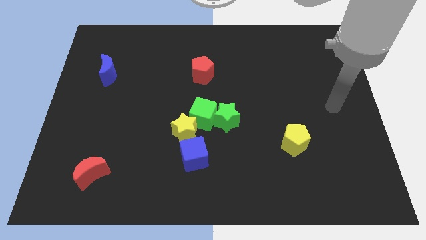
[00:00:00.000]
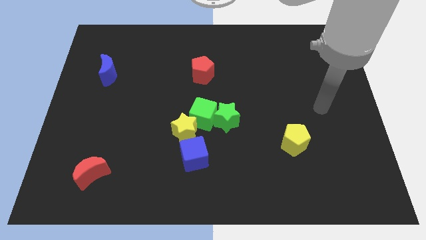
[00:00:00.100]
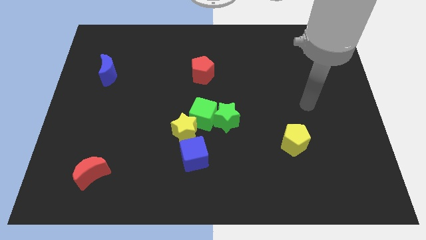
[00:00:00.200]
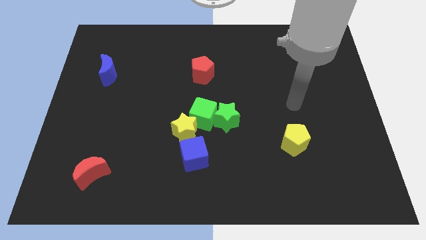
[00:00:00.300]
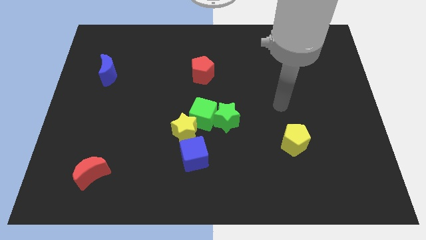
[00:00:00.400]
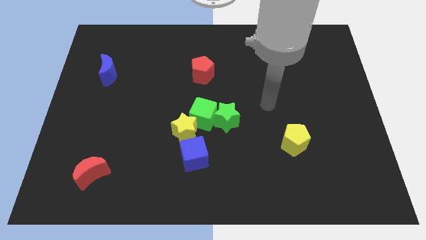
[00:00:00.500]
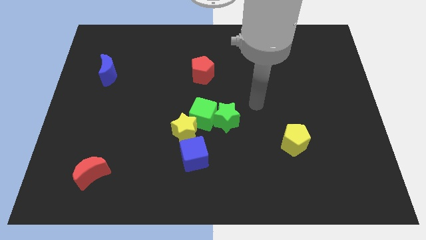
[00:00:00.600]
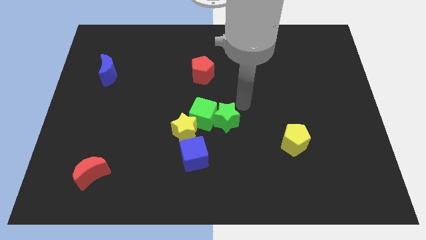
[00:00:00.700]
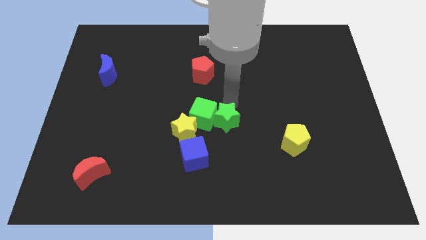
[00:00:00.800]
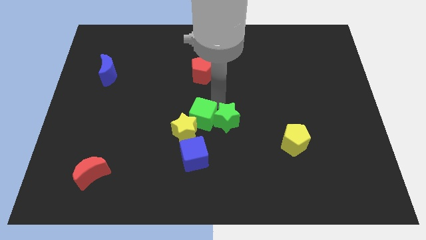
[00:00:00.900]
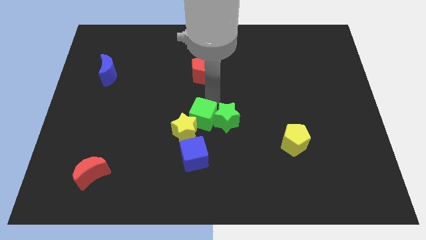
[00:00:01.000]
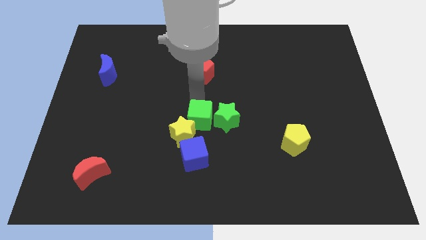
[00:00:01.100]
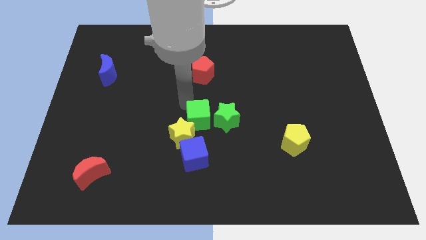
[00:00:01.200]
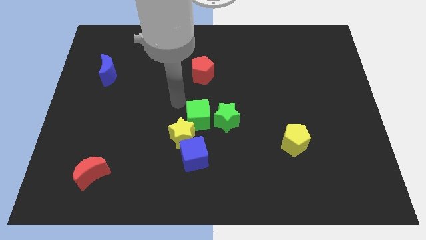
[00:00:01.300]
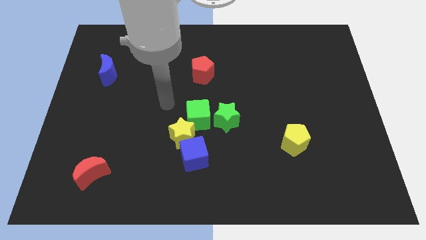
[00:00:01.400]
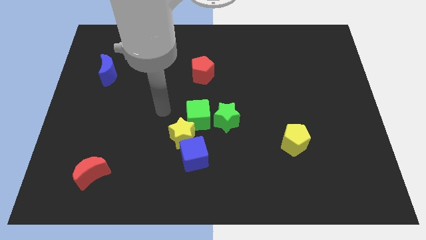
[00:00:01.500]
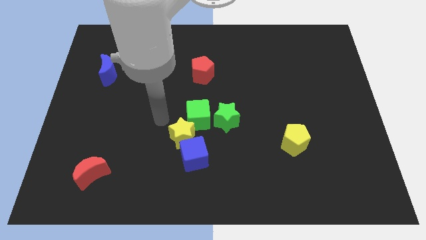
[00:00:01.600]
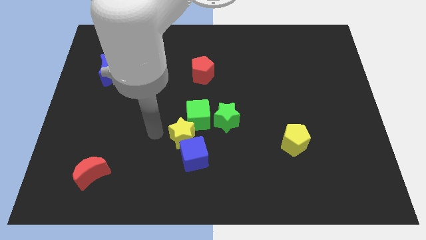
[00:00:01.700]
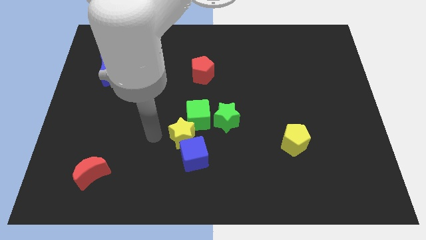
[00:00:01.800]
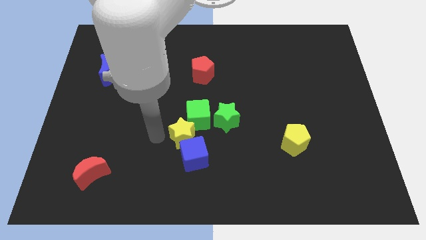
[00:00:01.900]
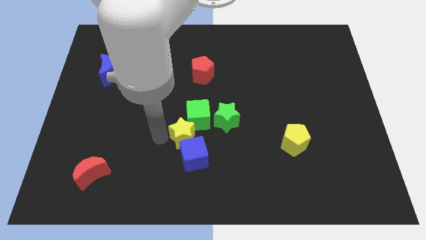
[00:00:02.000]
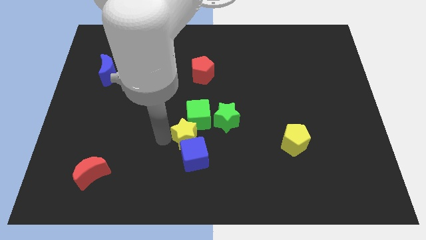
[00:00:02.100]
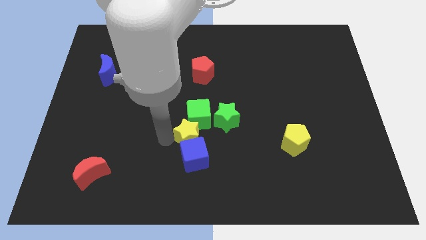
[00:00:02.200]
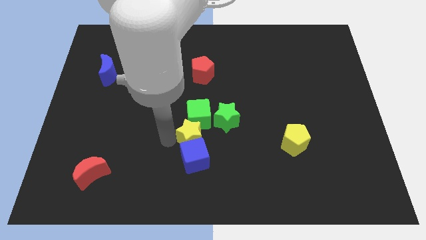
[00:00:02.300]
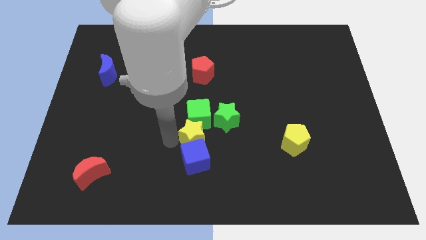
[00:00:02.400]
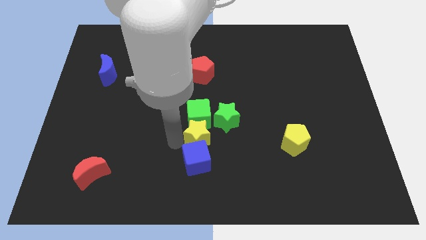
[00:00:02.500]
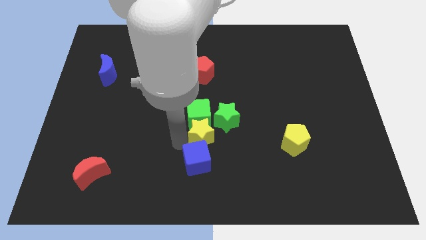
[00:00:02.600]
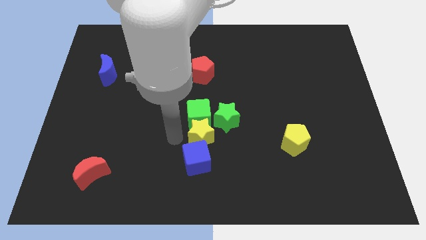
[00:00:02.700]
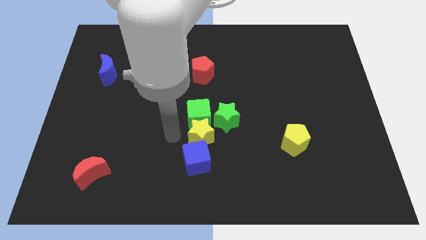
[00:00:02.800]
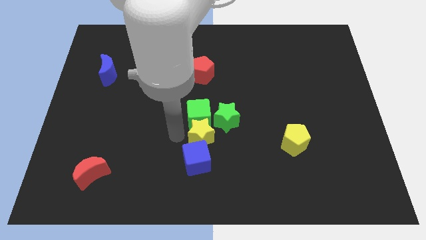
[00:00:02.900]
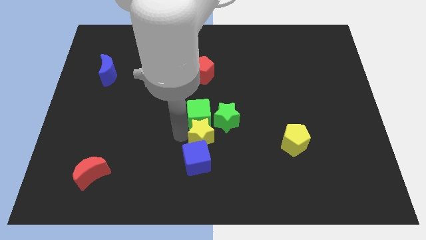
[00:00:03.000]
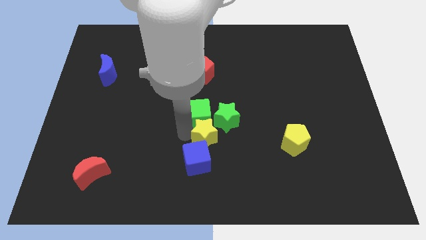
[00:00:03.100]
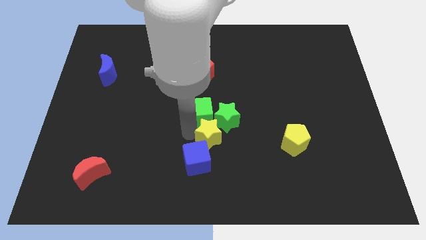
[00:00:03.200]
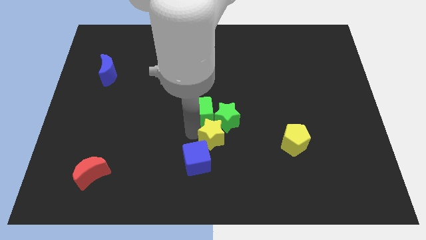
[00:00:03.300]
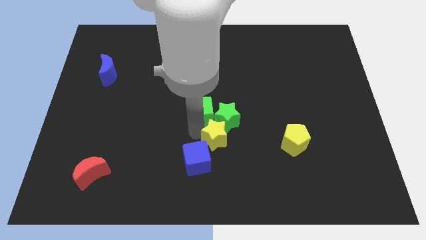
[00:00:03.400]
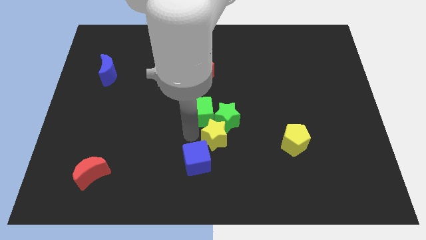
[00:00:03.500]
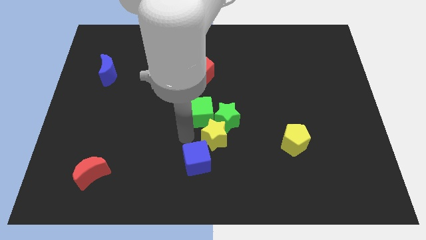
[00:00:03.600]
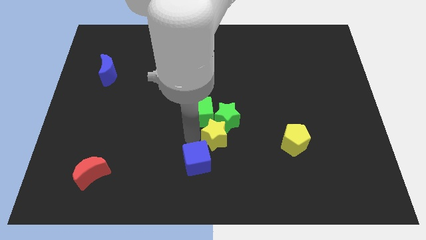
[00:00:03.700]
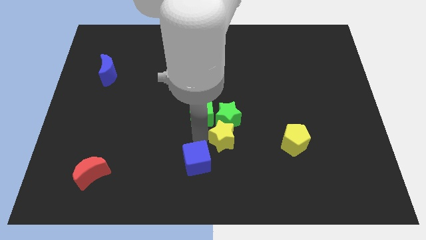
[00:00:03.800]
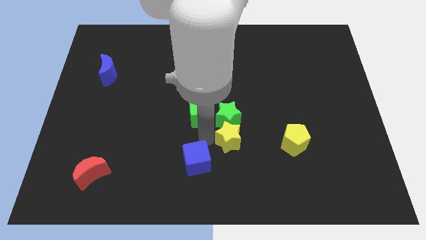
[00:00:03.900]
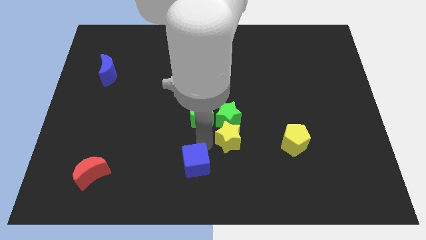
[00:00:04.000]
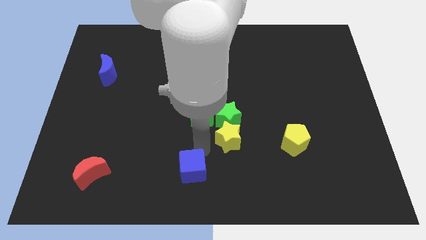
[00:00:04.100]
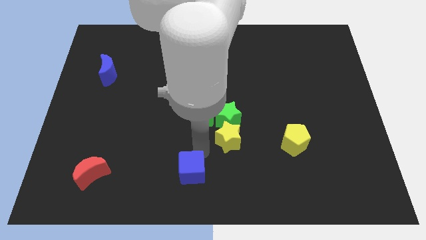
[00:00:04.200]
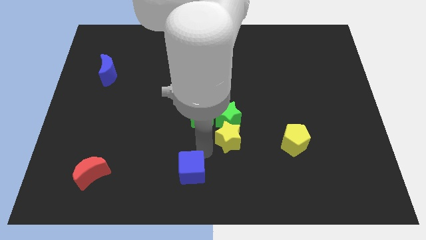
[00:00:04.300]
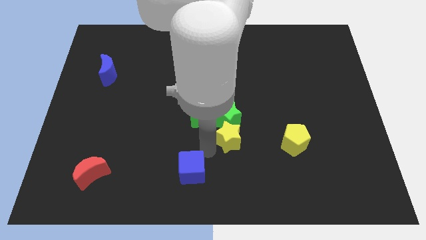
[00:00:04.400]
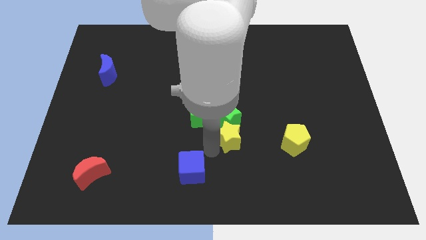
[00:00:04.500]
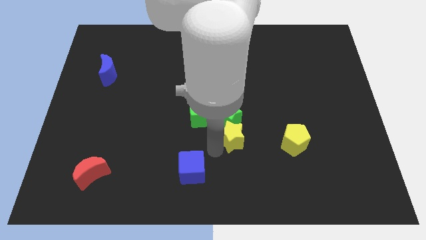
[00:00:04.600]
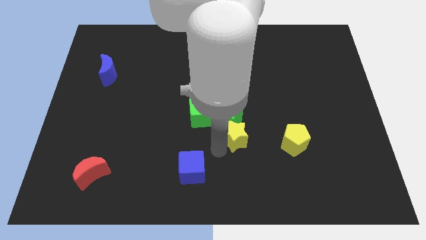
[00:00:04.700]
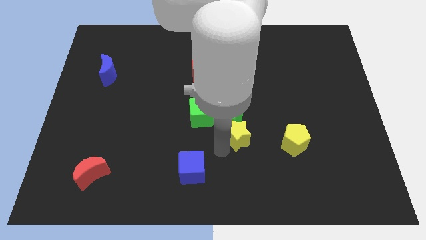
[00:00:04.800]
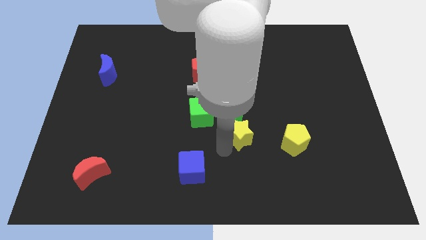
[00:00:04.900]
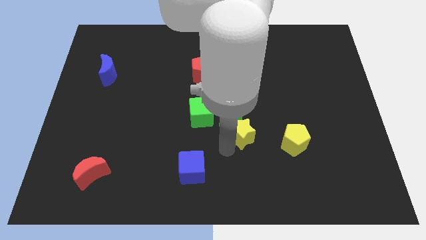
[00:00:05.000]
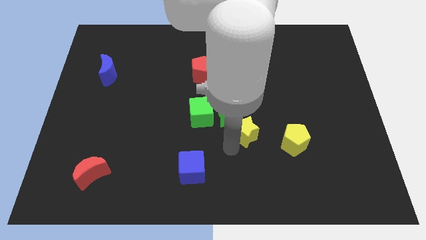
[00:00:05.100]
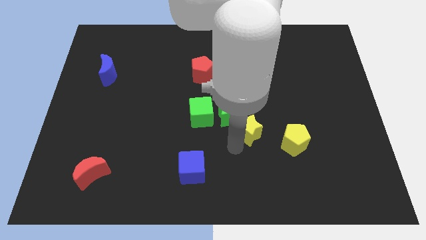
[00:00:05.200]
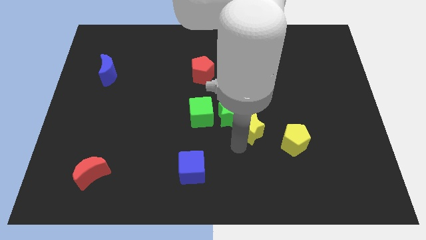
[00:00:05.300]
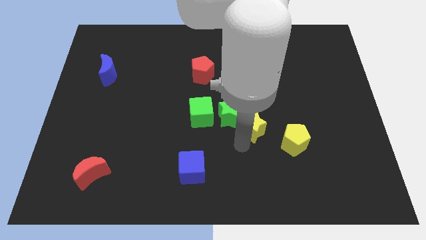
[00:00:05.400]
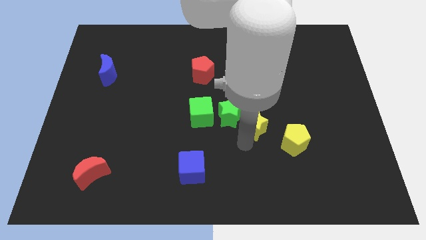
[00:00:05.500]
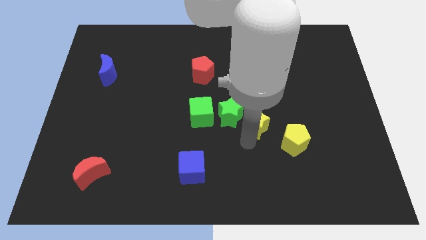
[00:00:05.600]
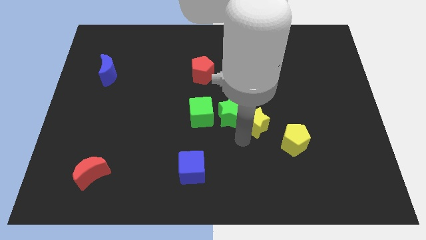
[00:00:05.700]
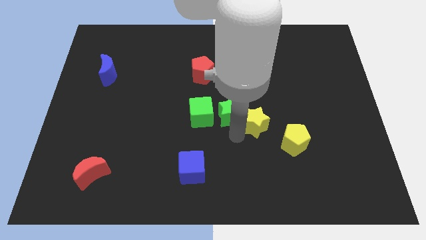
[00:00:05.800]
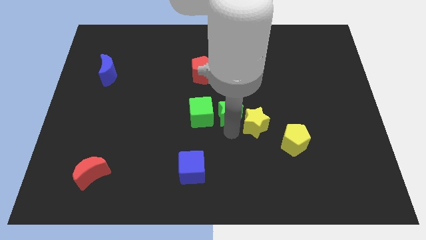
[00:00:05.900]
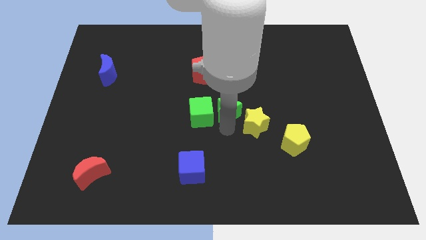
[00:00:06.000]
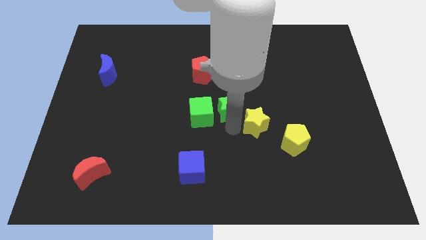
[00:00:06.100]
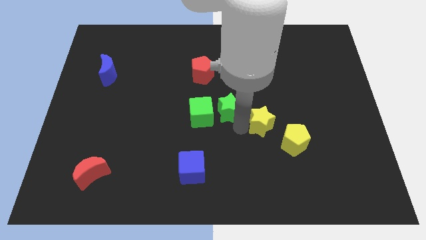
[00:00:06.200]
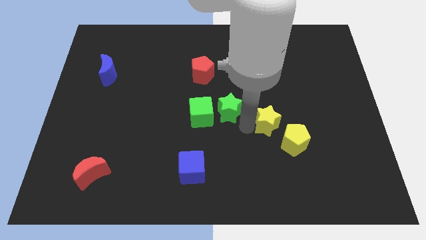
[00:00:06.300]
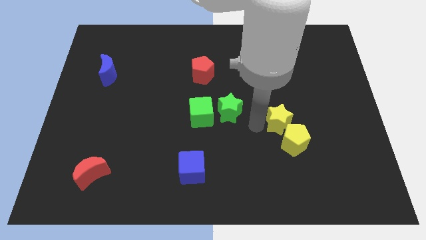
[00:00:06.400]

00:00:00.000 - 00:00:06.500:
push the yellow star right

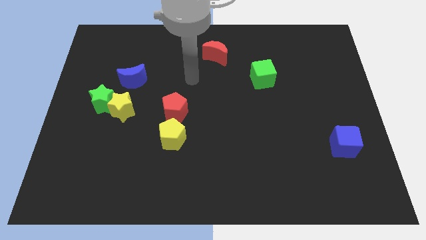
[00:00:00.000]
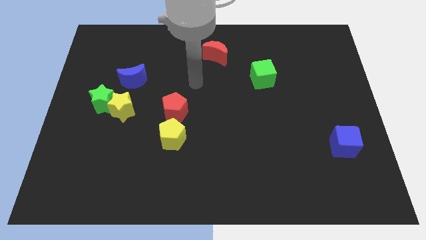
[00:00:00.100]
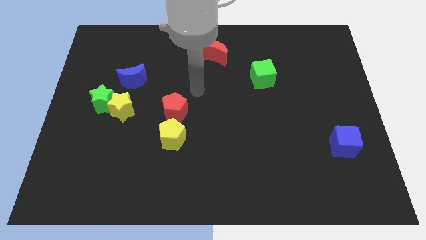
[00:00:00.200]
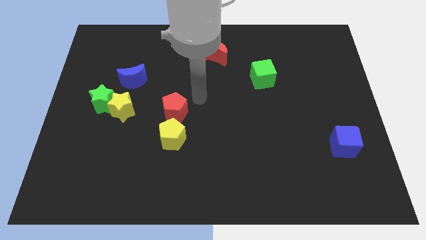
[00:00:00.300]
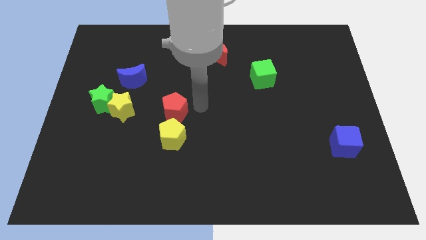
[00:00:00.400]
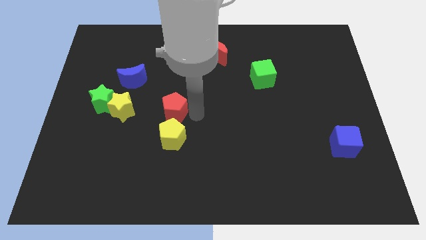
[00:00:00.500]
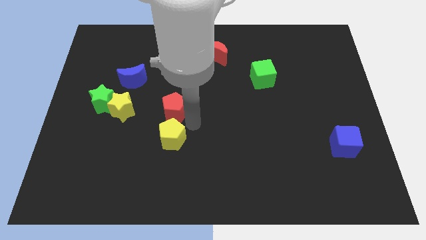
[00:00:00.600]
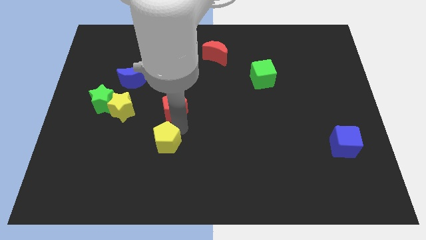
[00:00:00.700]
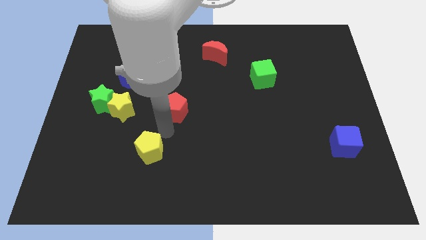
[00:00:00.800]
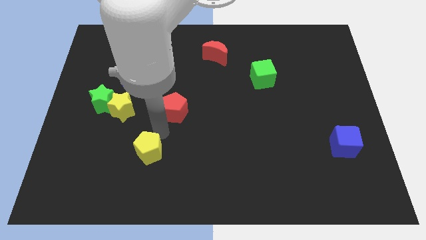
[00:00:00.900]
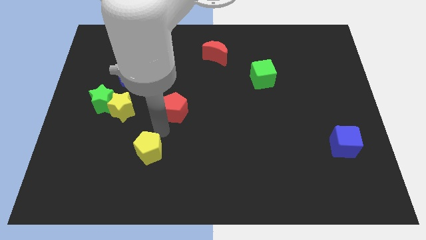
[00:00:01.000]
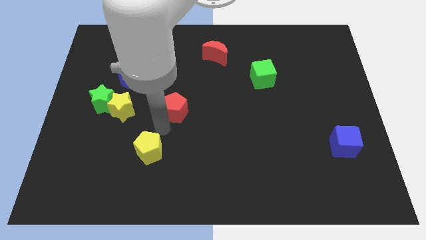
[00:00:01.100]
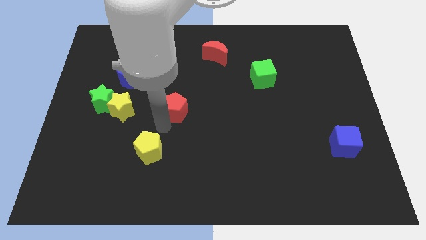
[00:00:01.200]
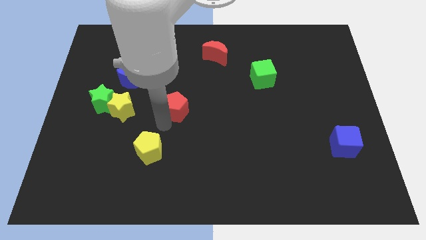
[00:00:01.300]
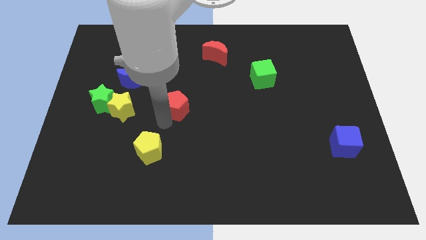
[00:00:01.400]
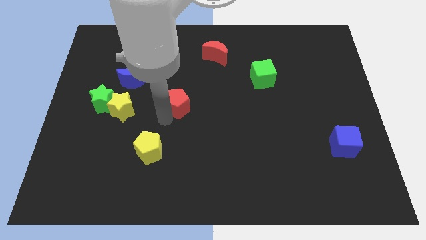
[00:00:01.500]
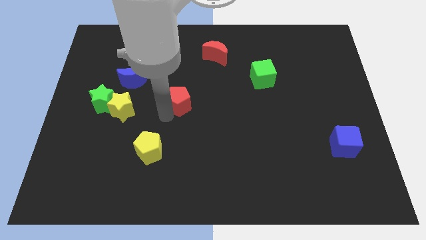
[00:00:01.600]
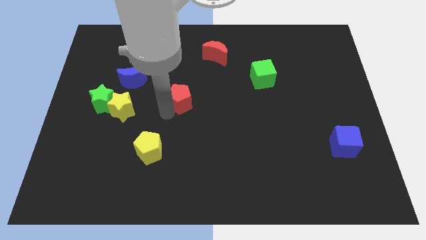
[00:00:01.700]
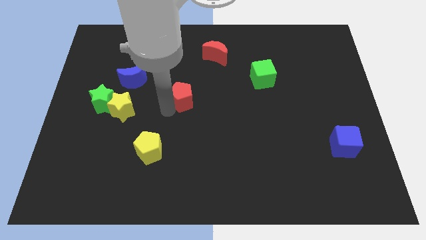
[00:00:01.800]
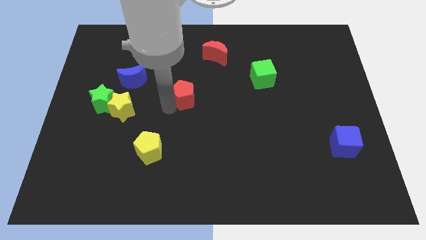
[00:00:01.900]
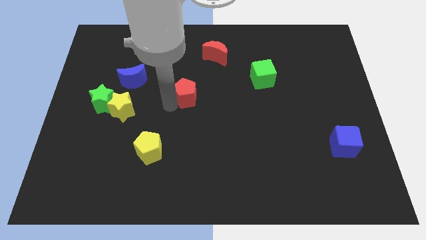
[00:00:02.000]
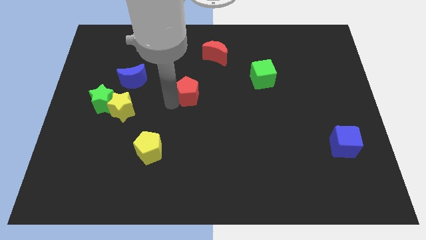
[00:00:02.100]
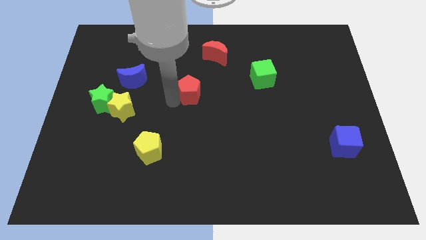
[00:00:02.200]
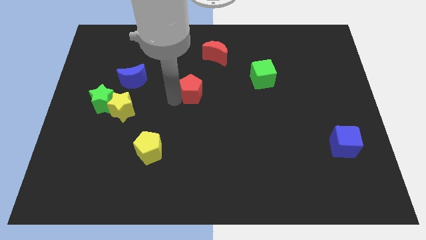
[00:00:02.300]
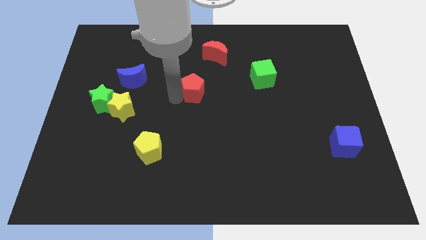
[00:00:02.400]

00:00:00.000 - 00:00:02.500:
slightly push the red pentagon upwards and right
